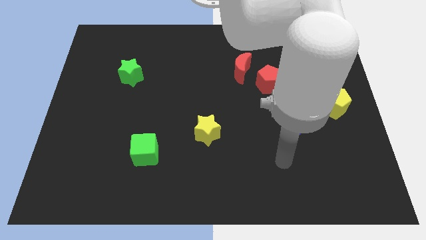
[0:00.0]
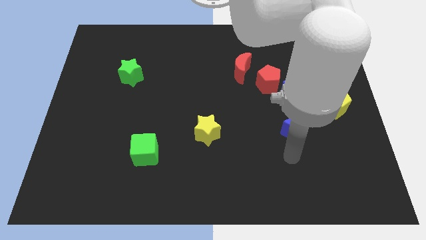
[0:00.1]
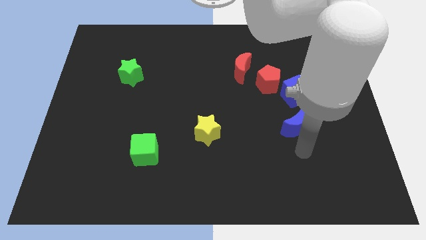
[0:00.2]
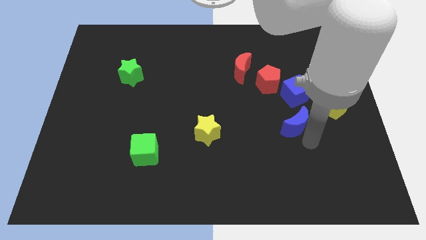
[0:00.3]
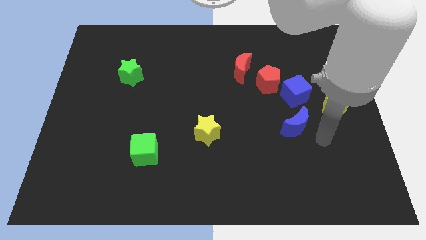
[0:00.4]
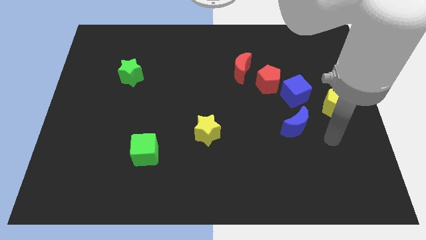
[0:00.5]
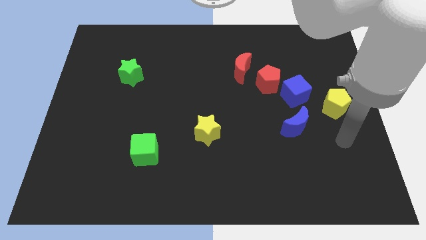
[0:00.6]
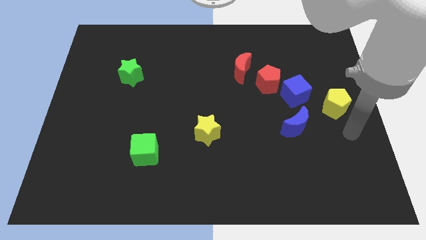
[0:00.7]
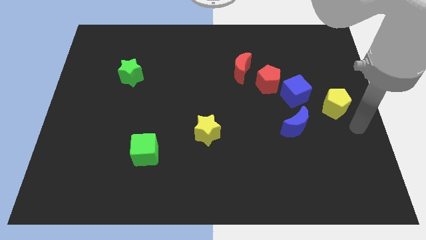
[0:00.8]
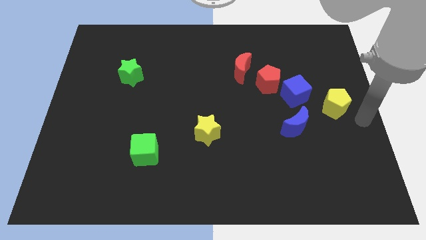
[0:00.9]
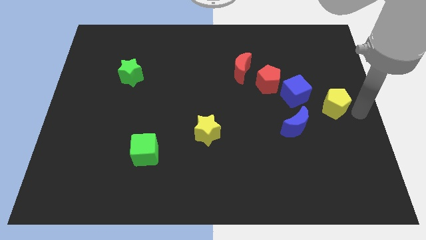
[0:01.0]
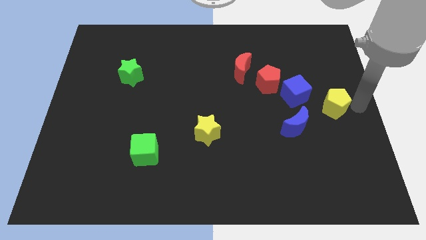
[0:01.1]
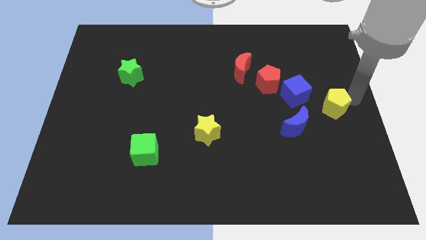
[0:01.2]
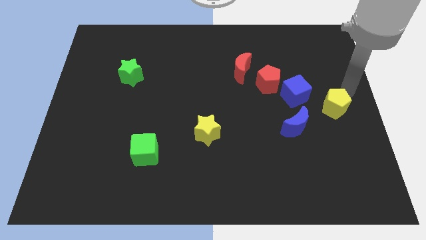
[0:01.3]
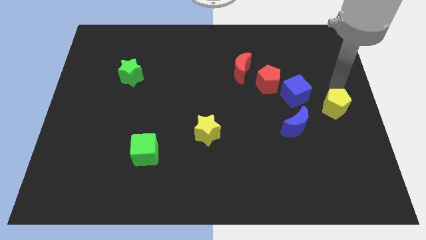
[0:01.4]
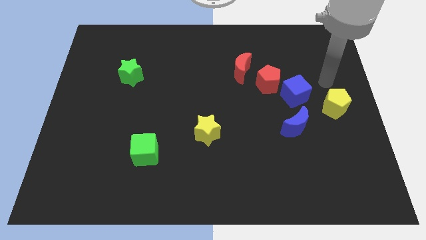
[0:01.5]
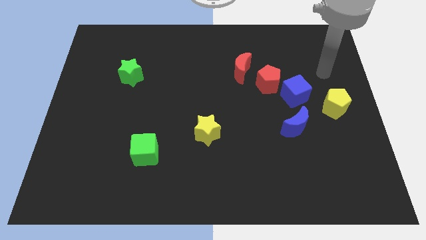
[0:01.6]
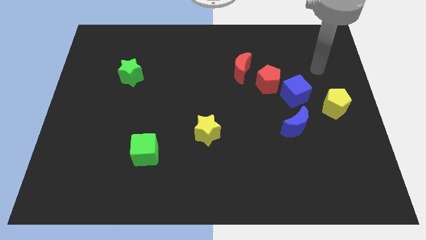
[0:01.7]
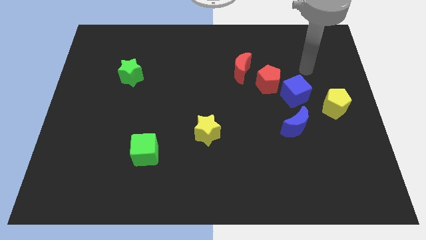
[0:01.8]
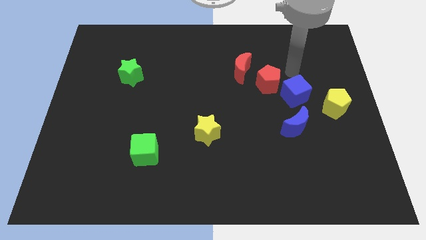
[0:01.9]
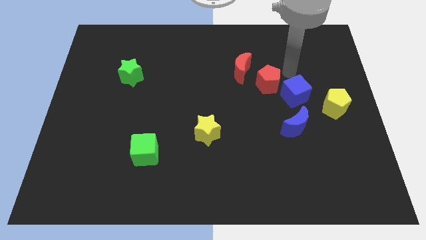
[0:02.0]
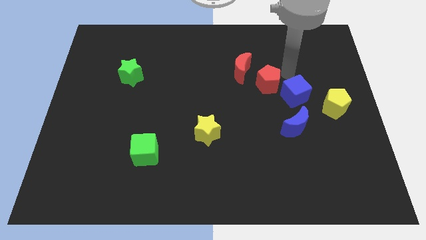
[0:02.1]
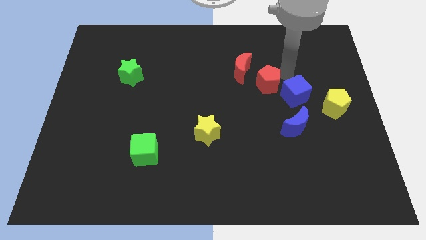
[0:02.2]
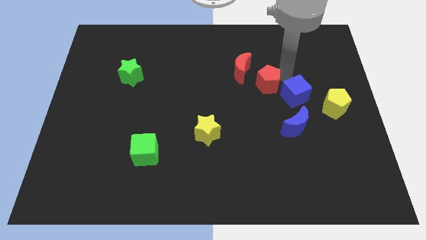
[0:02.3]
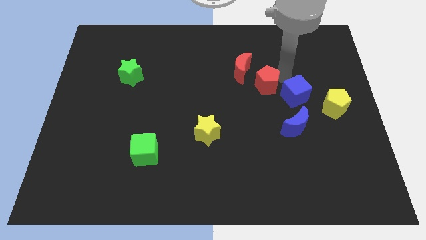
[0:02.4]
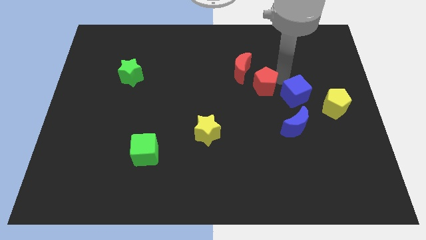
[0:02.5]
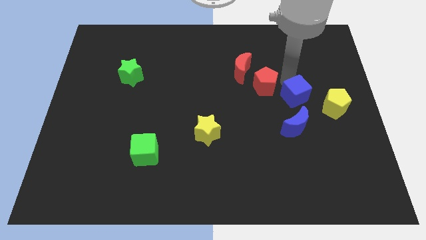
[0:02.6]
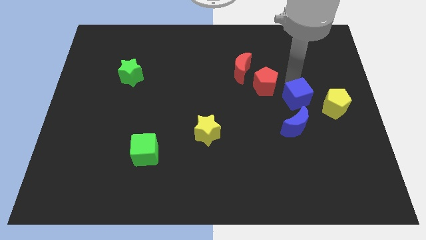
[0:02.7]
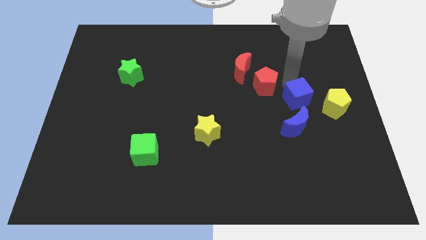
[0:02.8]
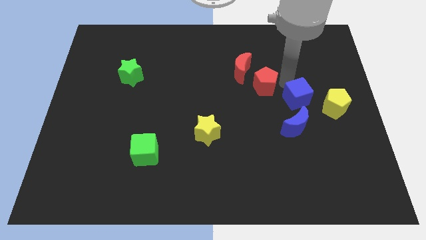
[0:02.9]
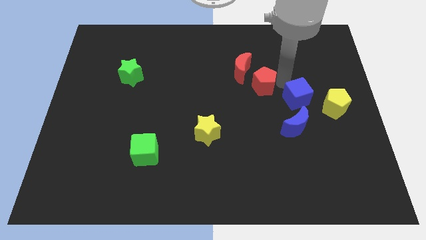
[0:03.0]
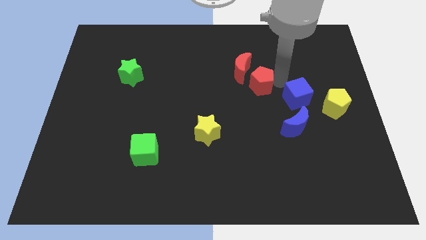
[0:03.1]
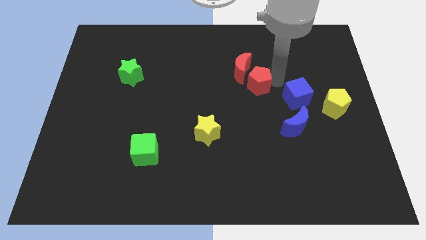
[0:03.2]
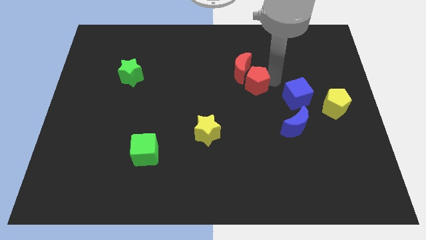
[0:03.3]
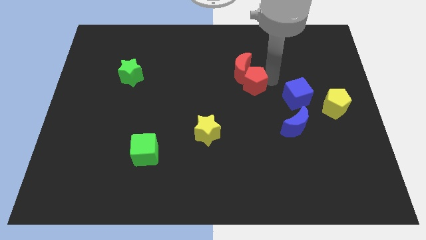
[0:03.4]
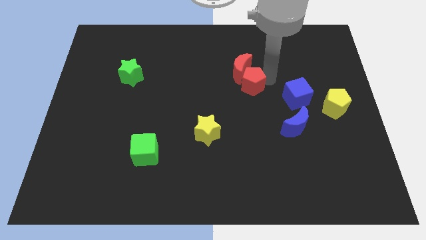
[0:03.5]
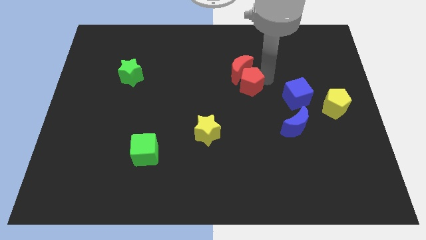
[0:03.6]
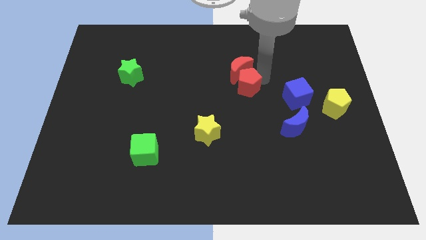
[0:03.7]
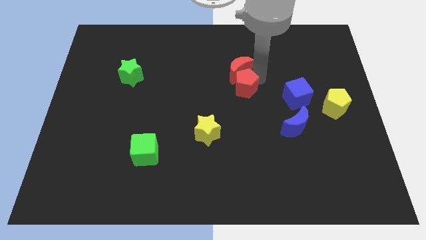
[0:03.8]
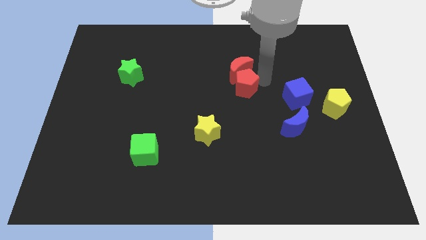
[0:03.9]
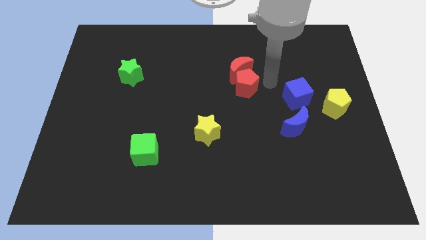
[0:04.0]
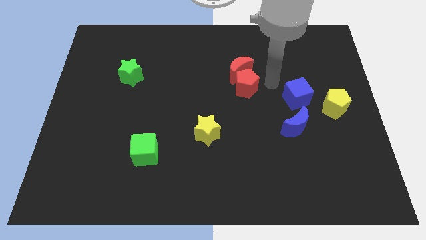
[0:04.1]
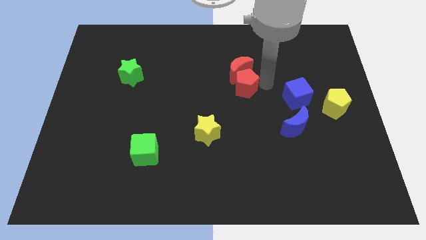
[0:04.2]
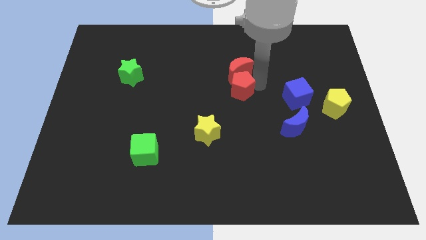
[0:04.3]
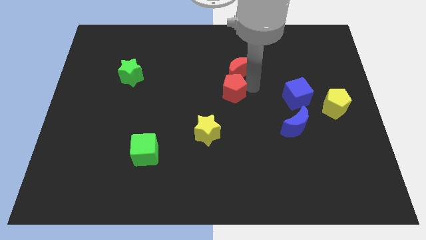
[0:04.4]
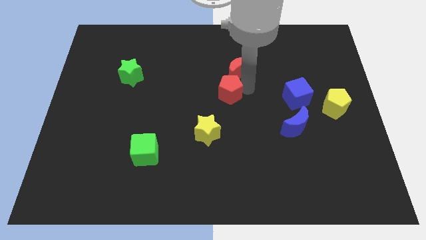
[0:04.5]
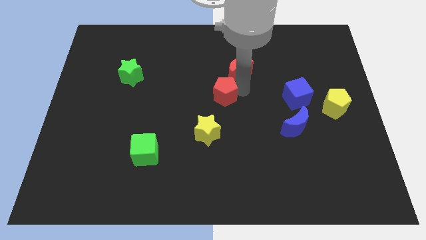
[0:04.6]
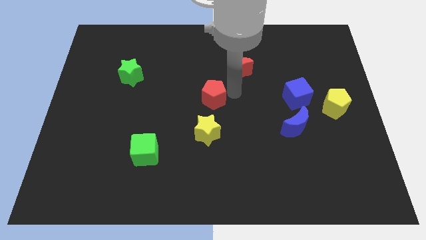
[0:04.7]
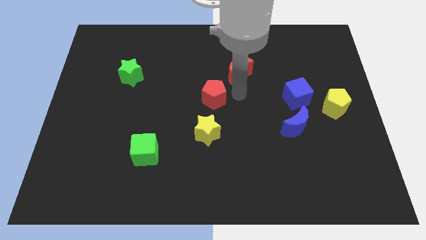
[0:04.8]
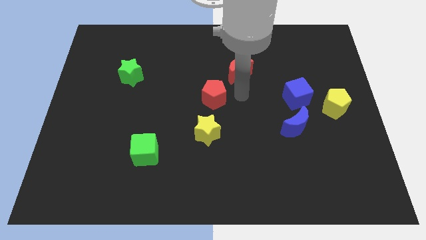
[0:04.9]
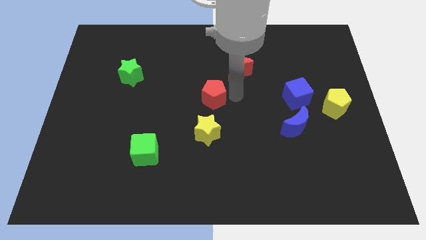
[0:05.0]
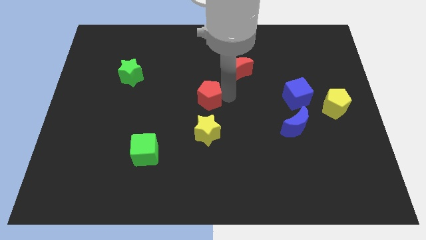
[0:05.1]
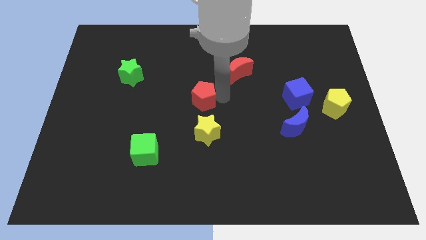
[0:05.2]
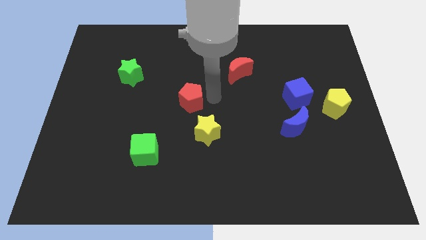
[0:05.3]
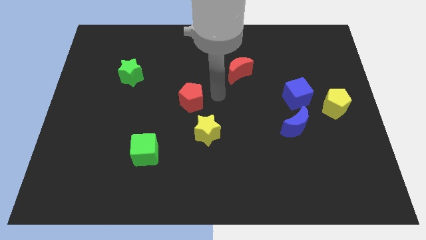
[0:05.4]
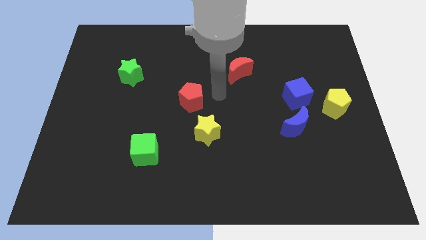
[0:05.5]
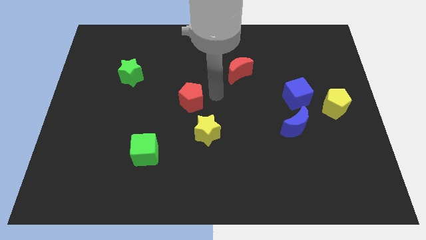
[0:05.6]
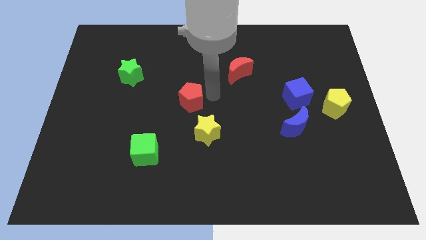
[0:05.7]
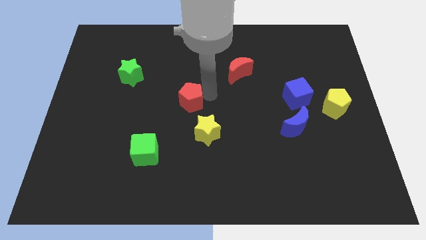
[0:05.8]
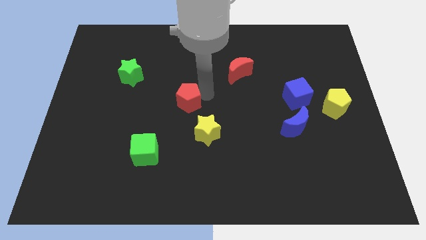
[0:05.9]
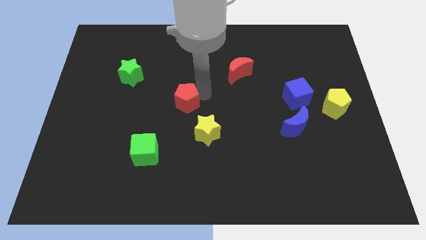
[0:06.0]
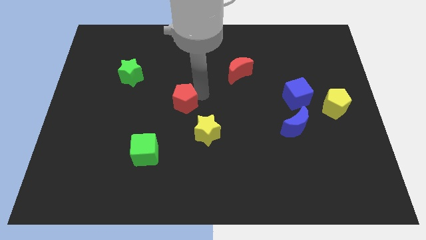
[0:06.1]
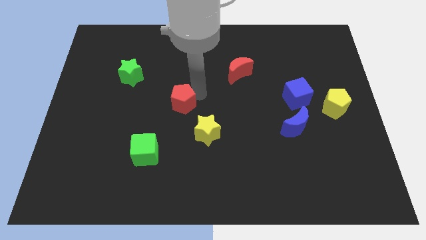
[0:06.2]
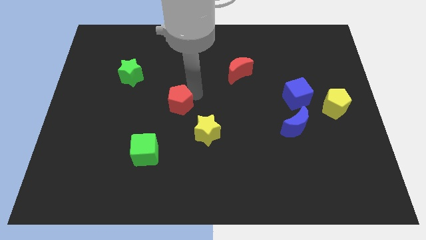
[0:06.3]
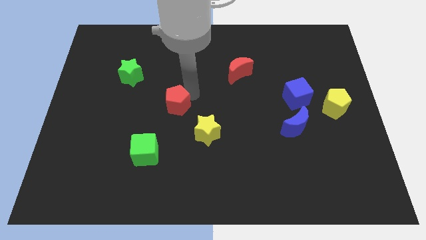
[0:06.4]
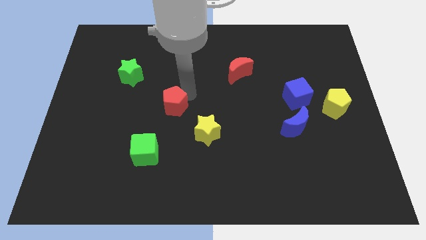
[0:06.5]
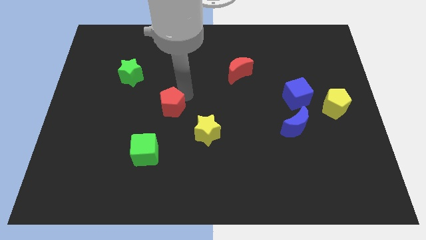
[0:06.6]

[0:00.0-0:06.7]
slide the red pentagon above the green cube
